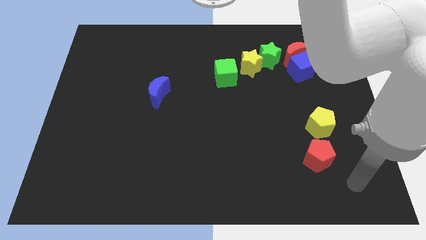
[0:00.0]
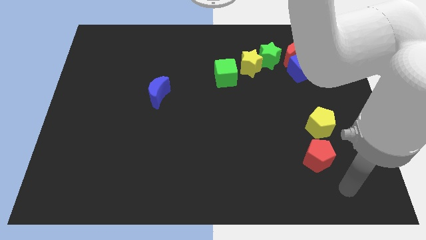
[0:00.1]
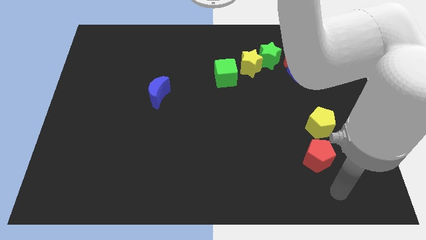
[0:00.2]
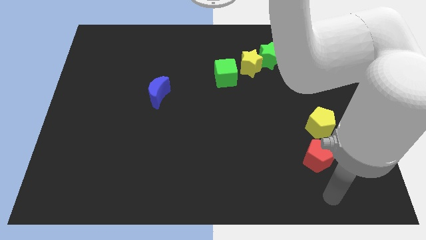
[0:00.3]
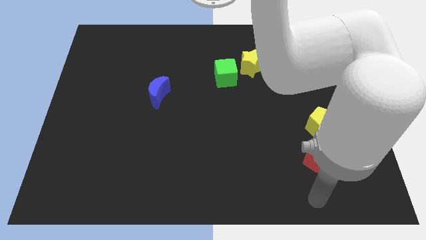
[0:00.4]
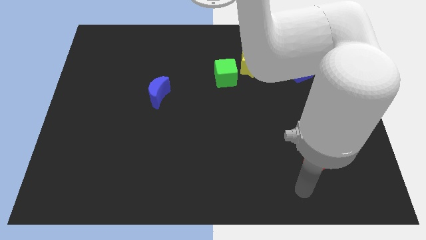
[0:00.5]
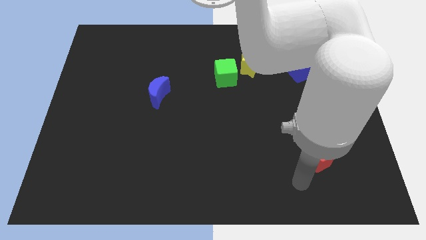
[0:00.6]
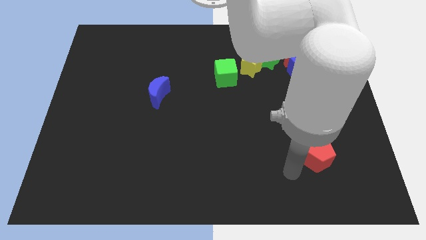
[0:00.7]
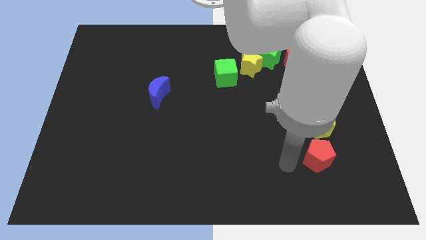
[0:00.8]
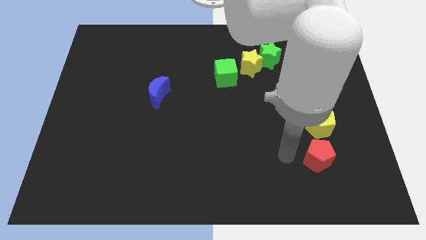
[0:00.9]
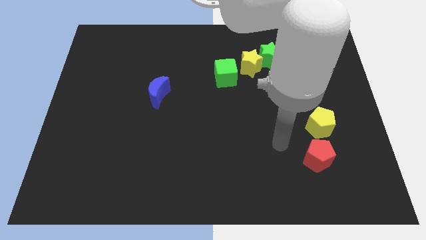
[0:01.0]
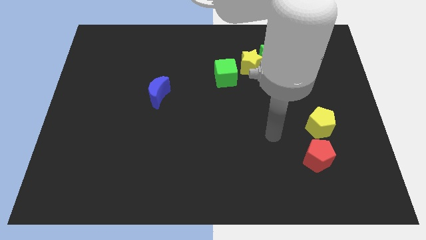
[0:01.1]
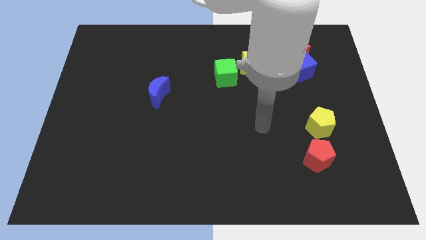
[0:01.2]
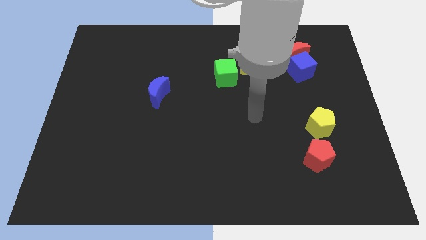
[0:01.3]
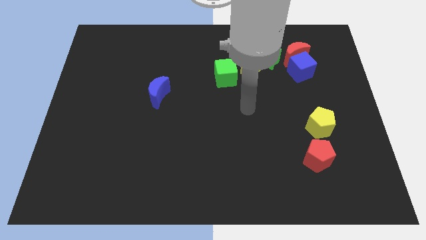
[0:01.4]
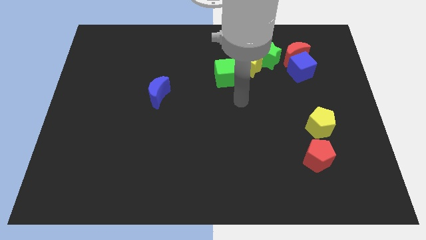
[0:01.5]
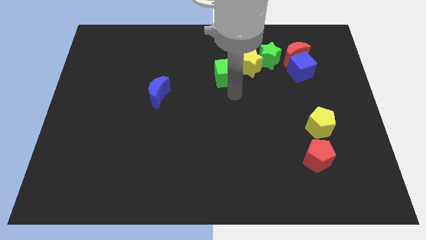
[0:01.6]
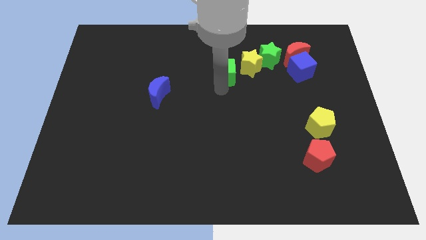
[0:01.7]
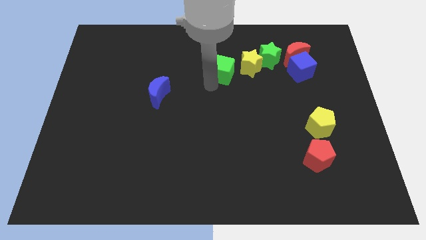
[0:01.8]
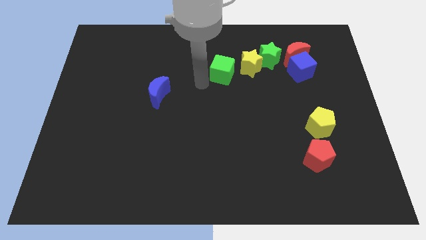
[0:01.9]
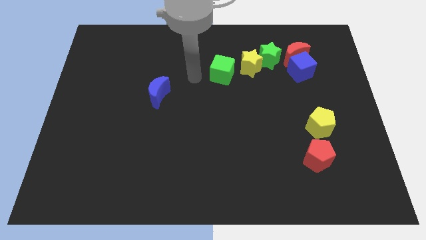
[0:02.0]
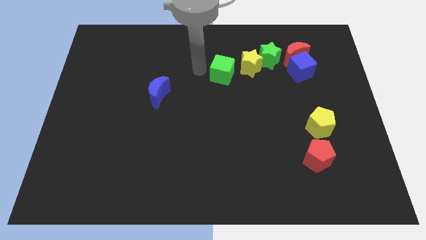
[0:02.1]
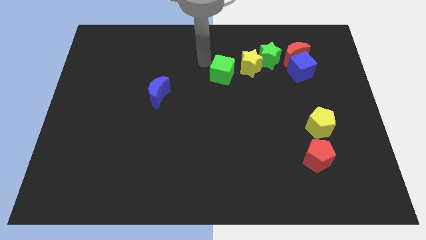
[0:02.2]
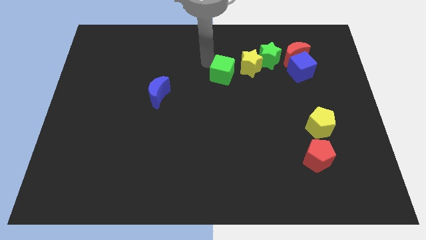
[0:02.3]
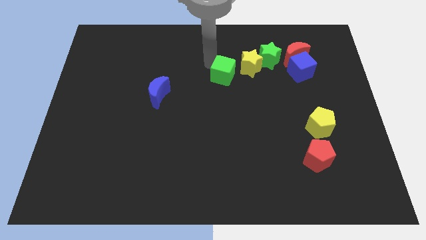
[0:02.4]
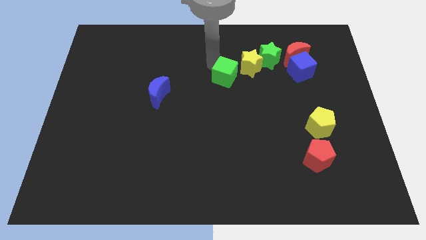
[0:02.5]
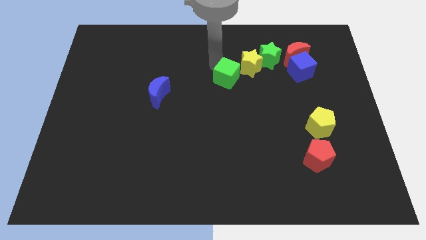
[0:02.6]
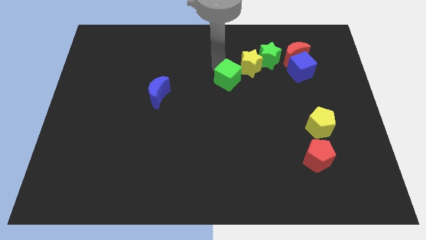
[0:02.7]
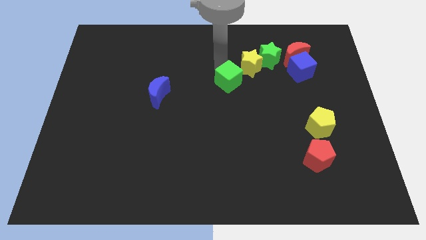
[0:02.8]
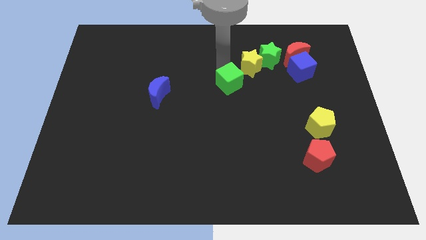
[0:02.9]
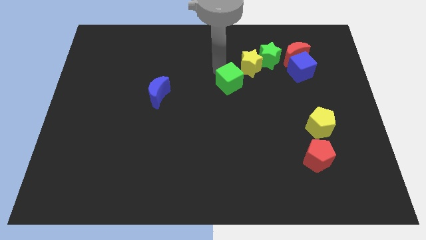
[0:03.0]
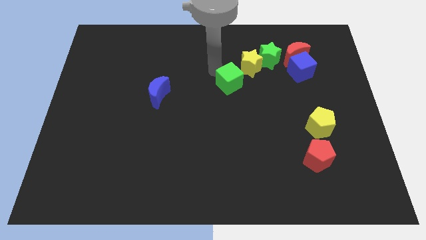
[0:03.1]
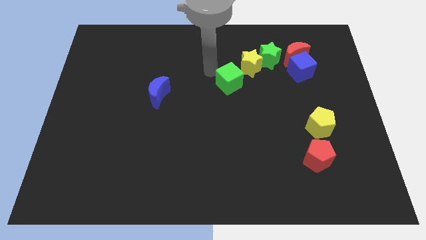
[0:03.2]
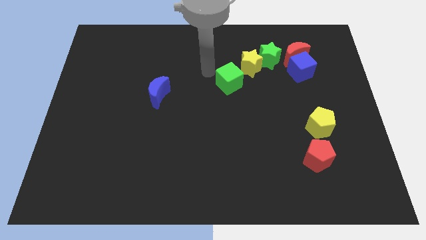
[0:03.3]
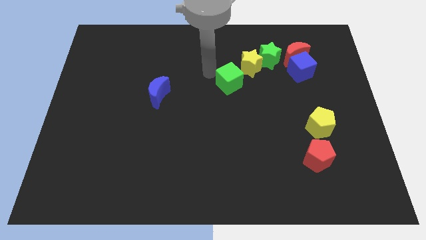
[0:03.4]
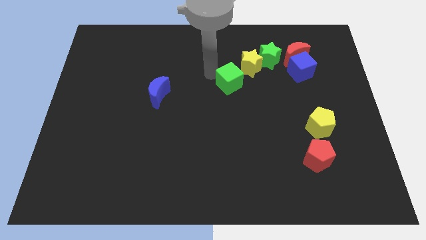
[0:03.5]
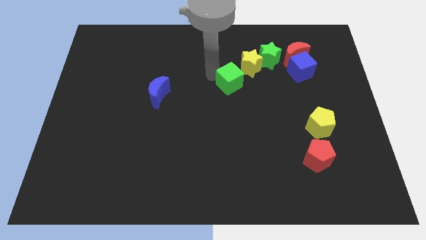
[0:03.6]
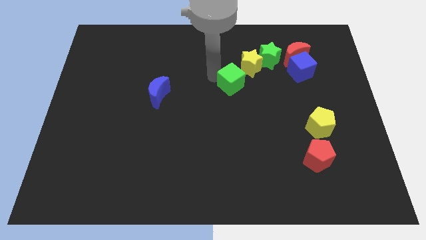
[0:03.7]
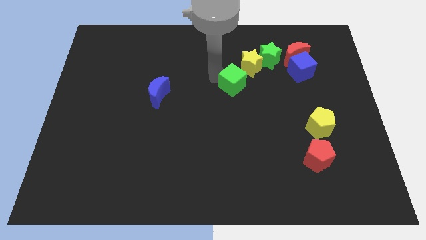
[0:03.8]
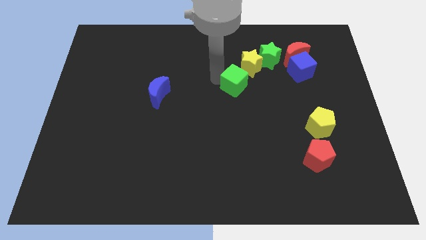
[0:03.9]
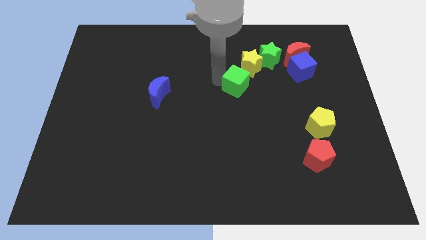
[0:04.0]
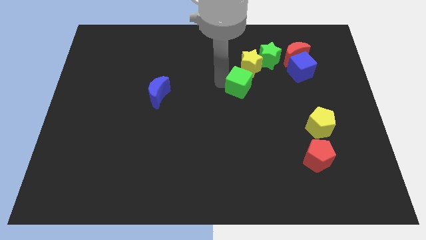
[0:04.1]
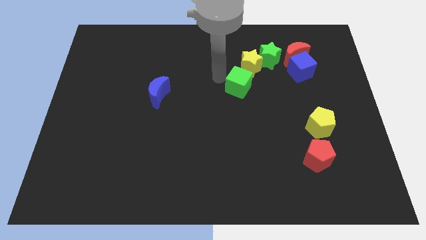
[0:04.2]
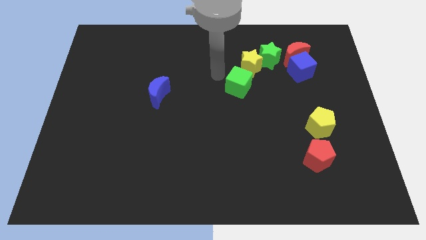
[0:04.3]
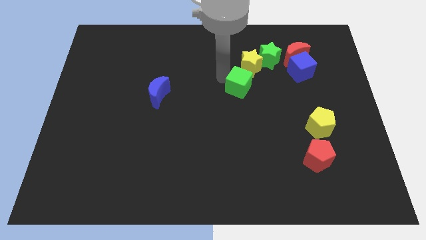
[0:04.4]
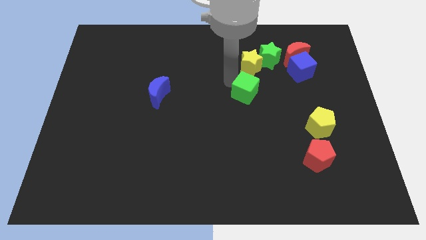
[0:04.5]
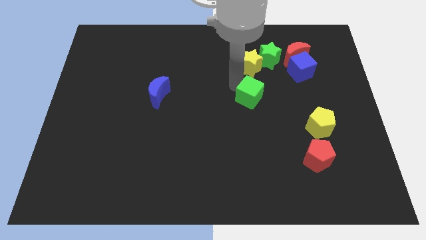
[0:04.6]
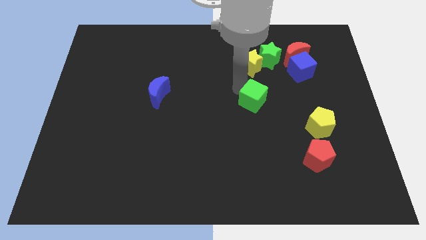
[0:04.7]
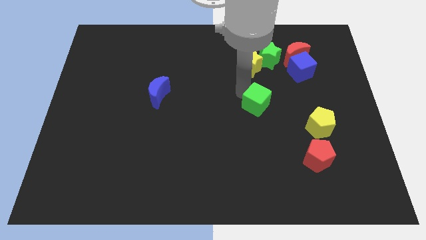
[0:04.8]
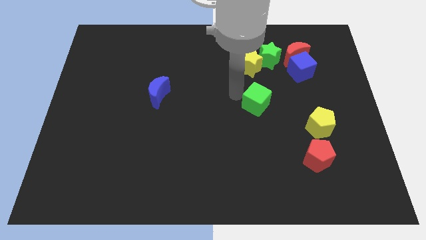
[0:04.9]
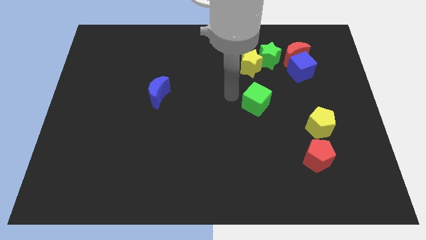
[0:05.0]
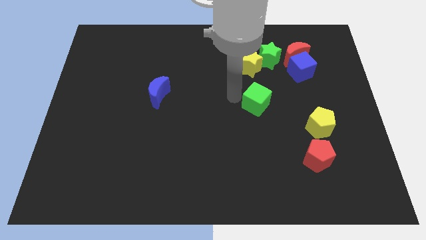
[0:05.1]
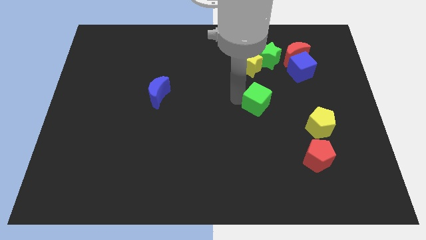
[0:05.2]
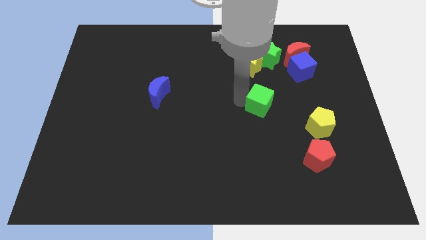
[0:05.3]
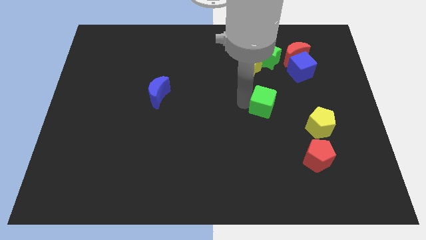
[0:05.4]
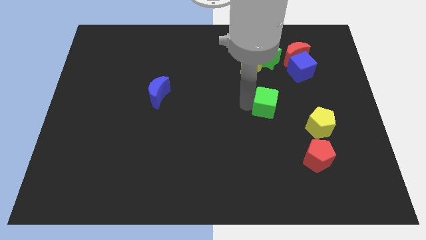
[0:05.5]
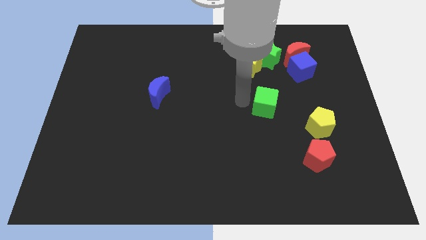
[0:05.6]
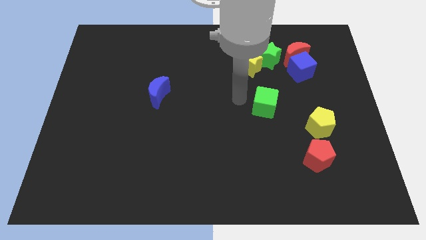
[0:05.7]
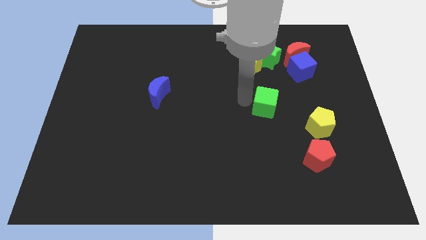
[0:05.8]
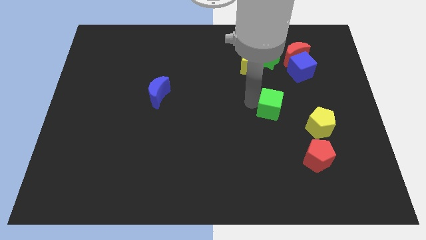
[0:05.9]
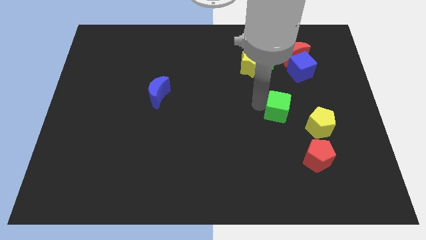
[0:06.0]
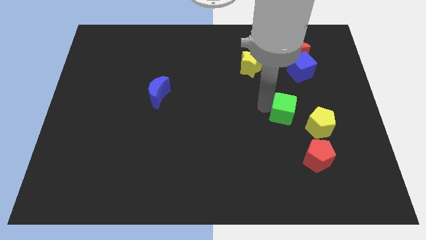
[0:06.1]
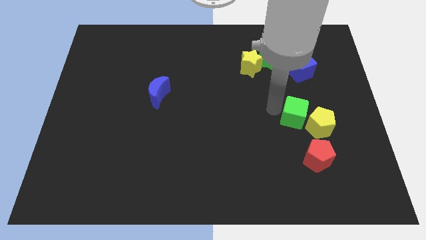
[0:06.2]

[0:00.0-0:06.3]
move the green cube towards the yellow pentagon
